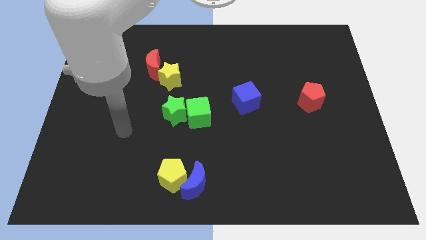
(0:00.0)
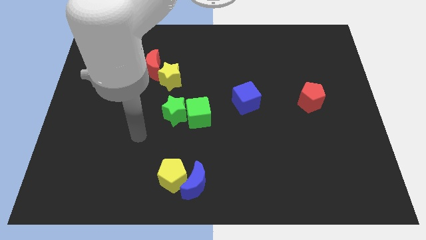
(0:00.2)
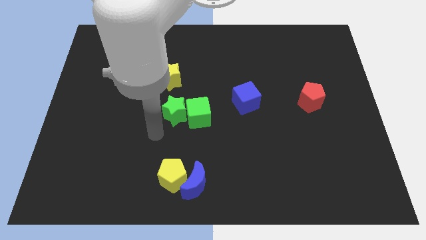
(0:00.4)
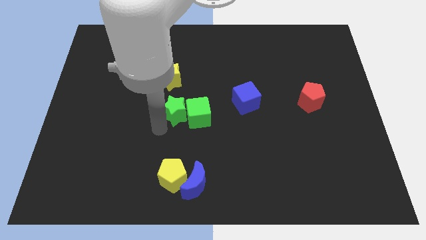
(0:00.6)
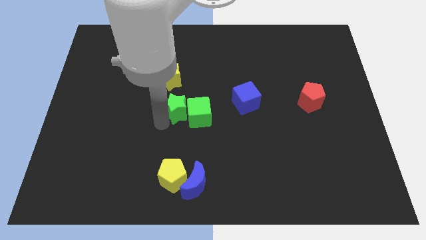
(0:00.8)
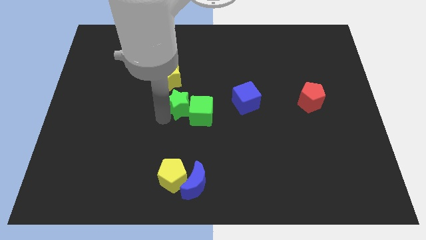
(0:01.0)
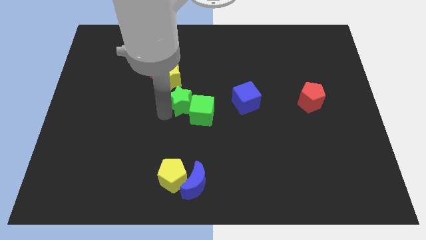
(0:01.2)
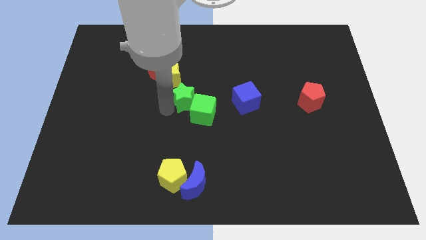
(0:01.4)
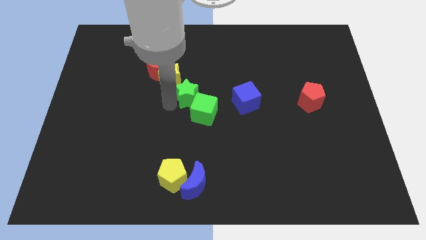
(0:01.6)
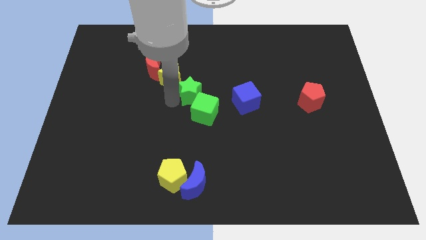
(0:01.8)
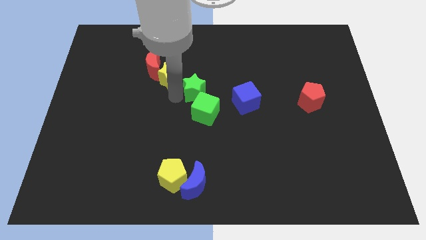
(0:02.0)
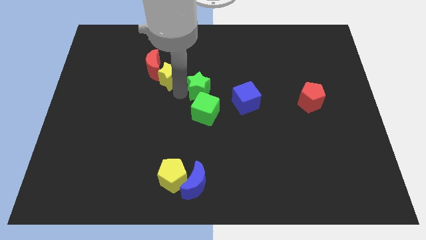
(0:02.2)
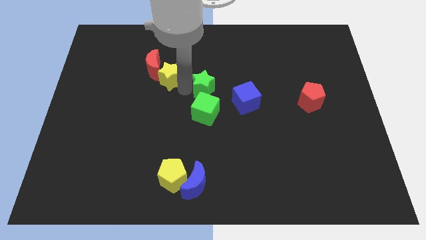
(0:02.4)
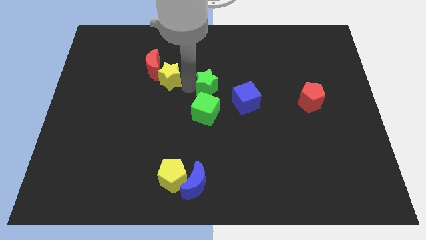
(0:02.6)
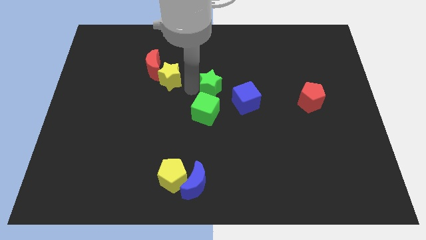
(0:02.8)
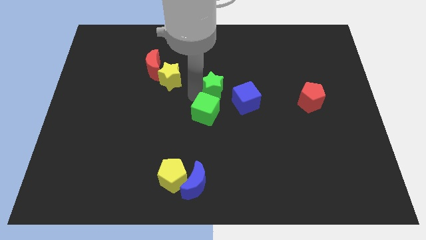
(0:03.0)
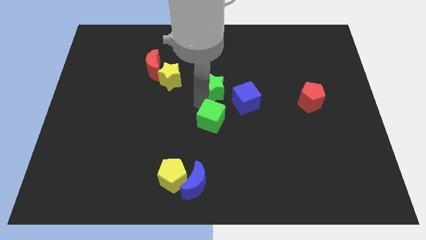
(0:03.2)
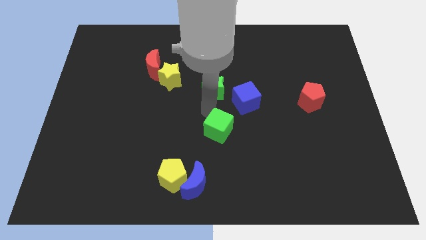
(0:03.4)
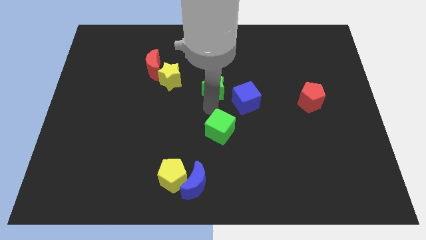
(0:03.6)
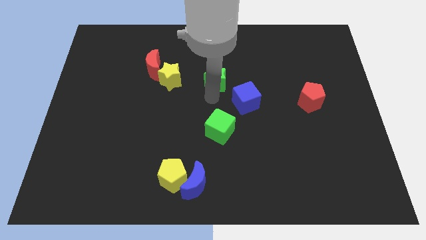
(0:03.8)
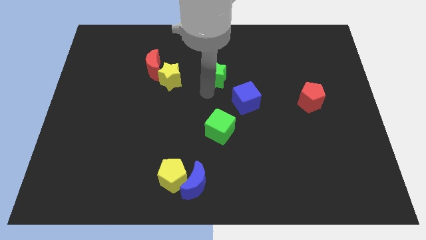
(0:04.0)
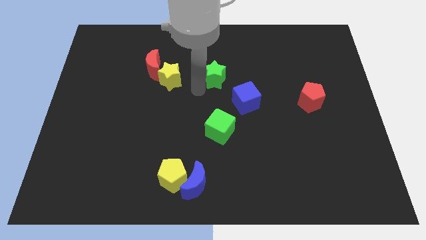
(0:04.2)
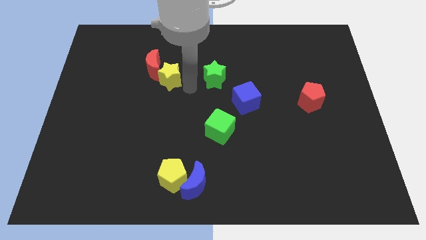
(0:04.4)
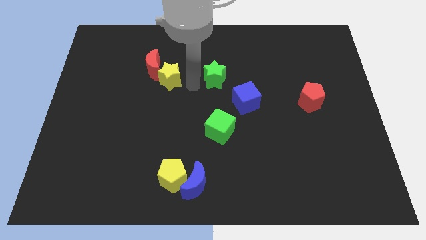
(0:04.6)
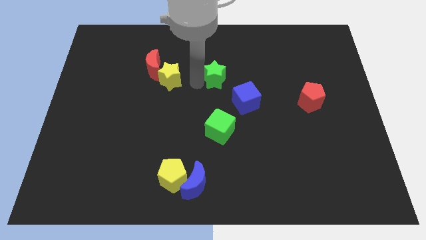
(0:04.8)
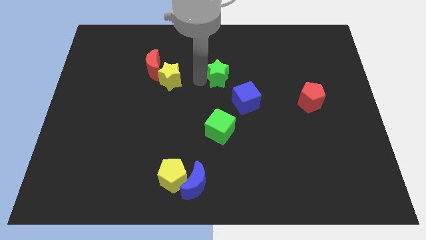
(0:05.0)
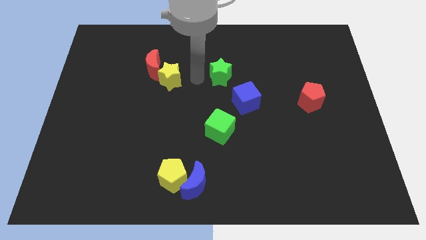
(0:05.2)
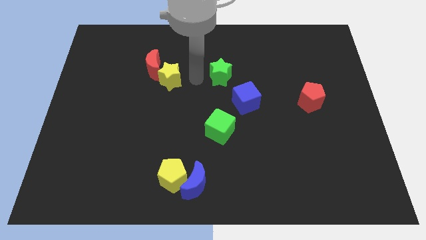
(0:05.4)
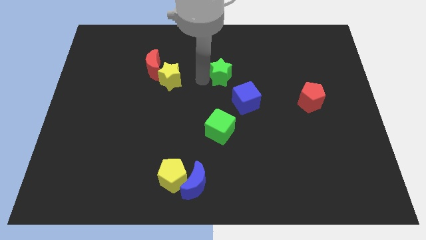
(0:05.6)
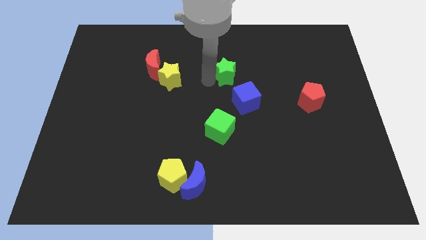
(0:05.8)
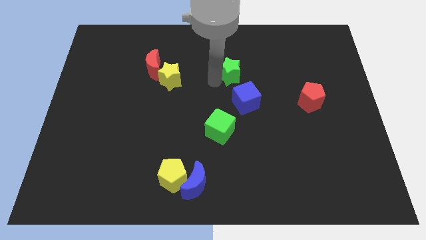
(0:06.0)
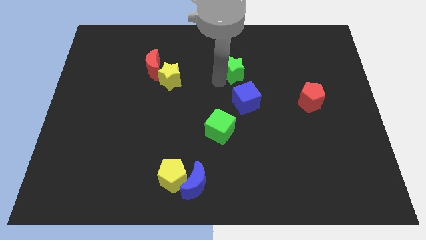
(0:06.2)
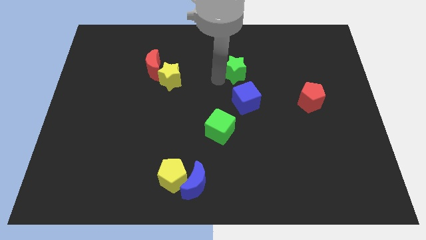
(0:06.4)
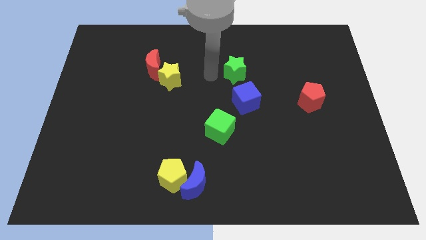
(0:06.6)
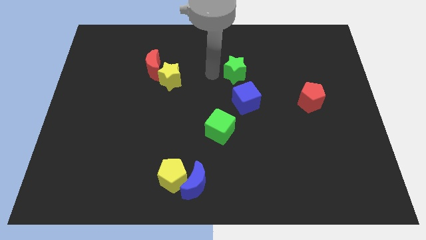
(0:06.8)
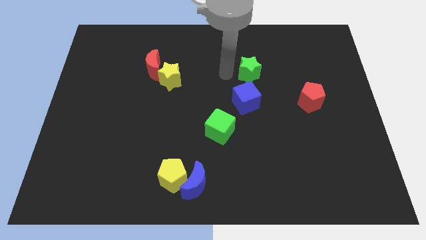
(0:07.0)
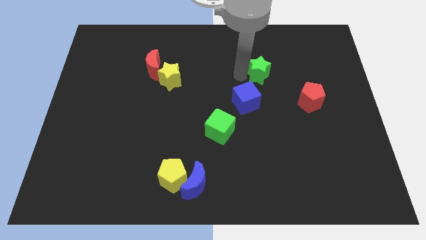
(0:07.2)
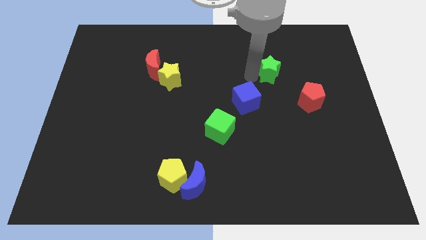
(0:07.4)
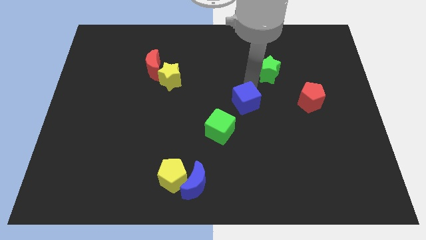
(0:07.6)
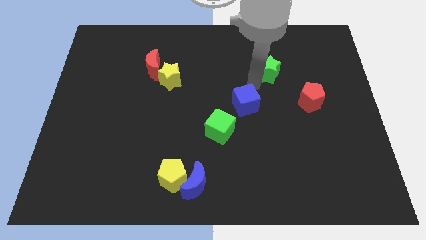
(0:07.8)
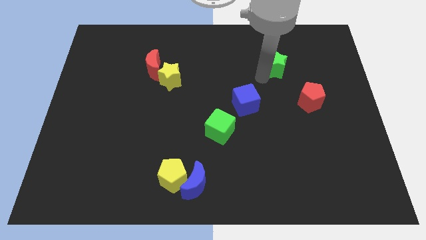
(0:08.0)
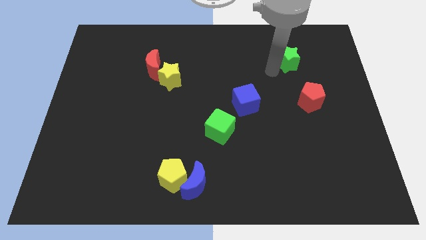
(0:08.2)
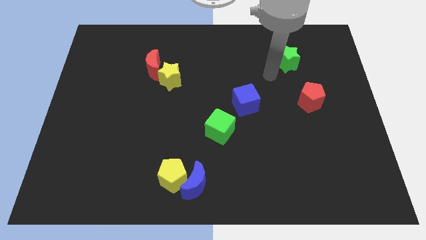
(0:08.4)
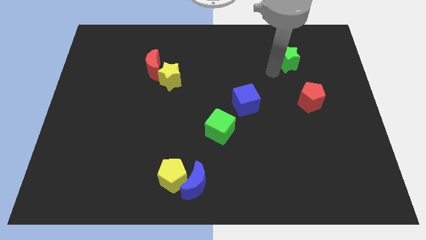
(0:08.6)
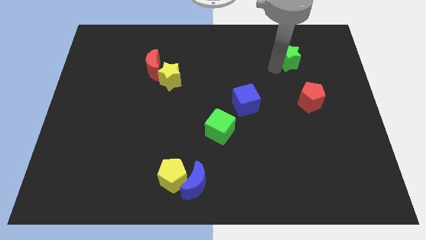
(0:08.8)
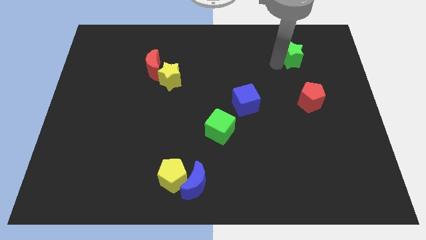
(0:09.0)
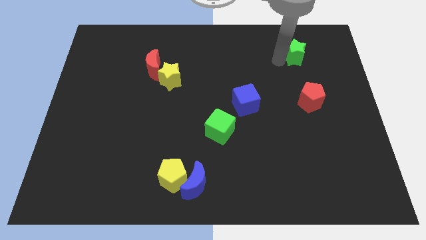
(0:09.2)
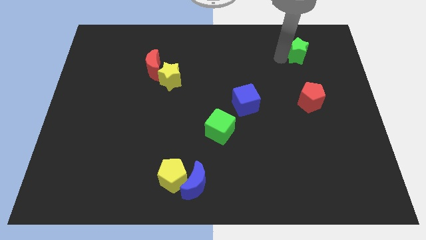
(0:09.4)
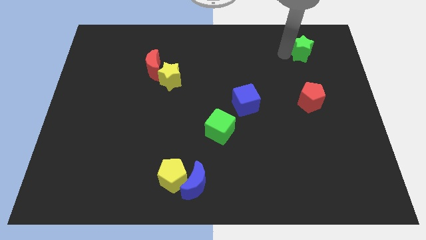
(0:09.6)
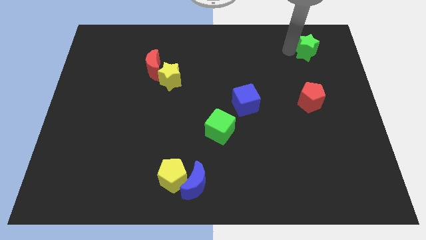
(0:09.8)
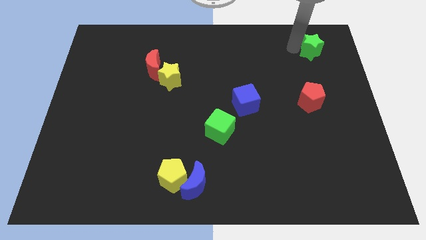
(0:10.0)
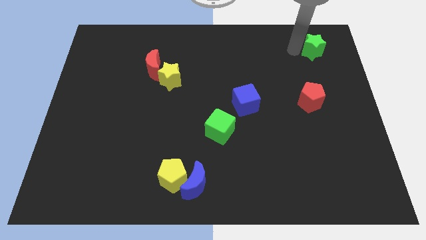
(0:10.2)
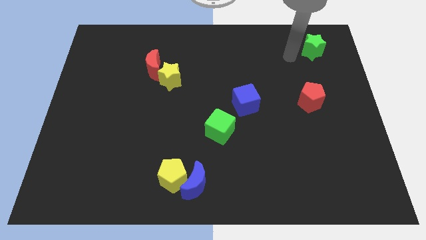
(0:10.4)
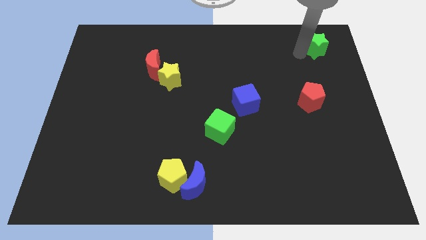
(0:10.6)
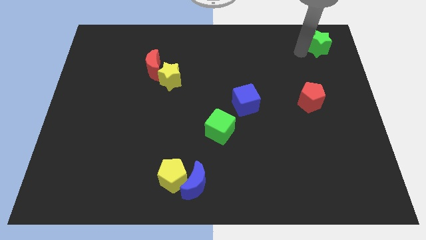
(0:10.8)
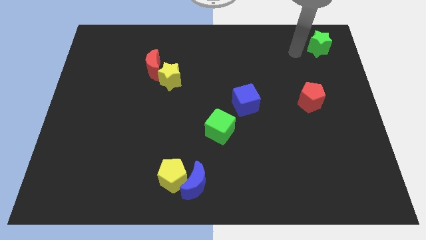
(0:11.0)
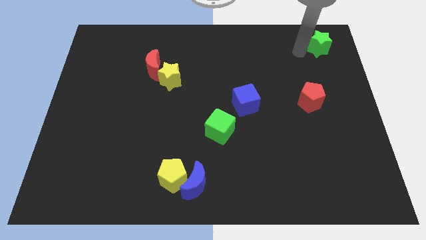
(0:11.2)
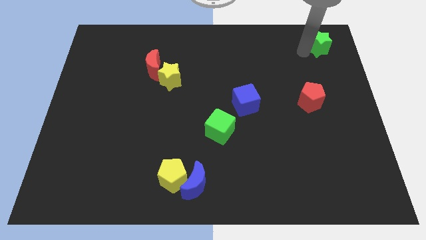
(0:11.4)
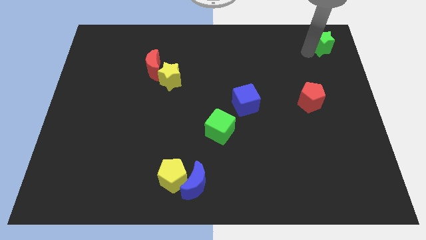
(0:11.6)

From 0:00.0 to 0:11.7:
move the green star to the top right
